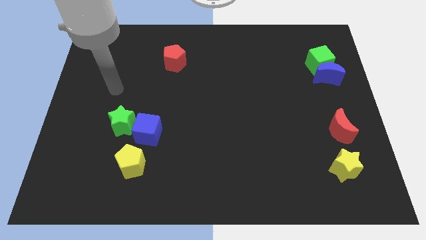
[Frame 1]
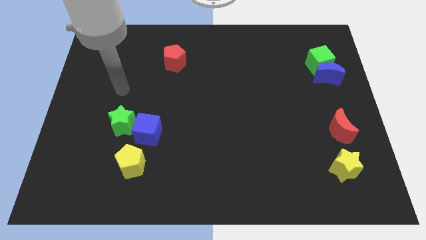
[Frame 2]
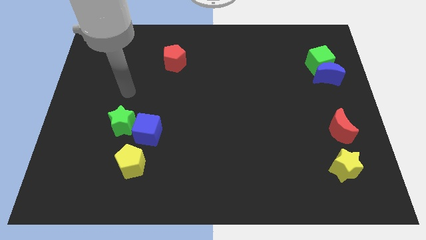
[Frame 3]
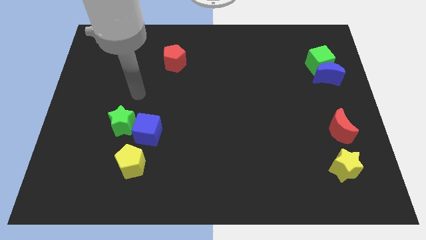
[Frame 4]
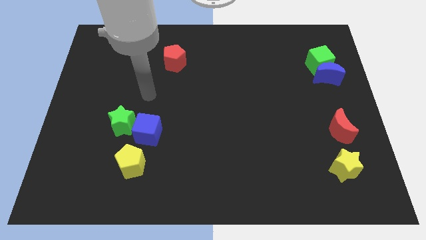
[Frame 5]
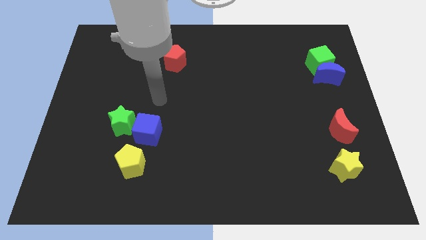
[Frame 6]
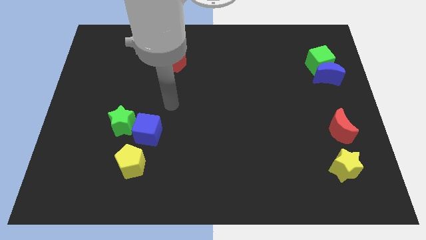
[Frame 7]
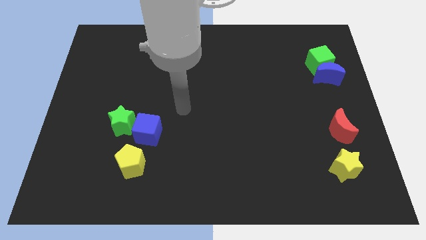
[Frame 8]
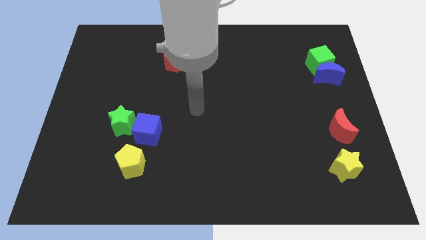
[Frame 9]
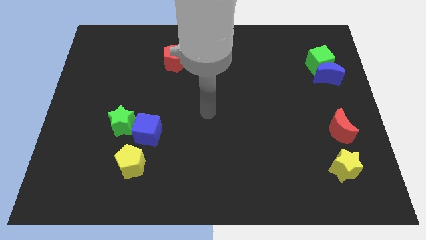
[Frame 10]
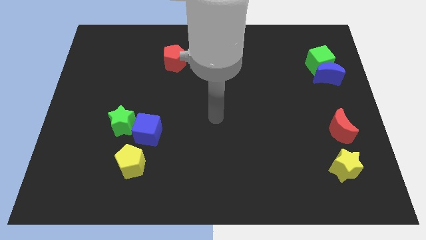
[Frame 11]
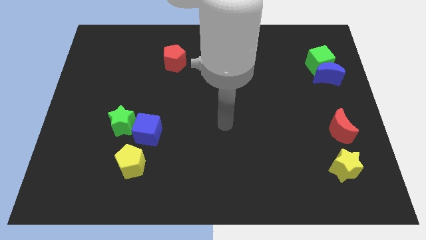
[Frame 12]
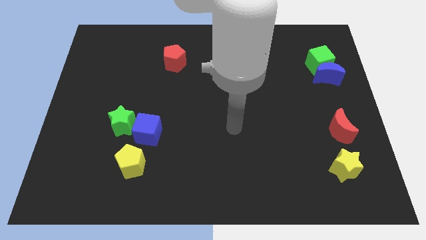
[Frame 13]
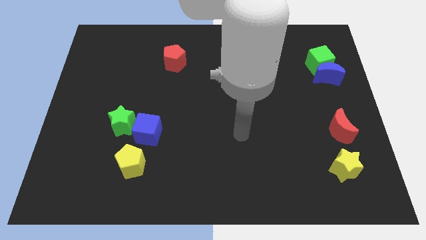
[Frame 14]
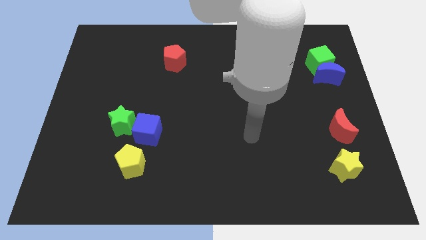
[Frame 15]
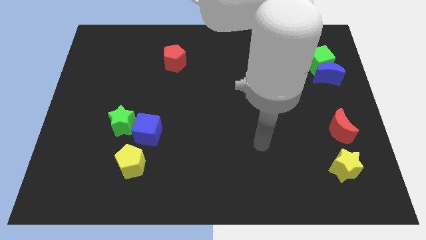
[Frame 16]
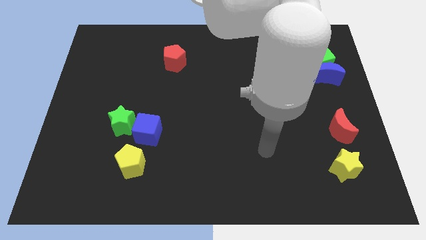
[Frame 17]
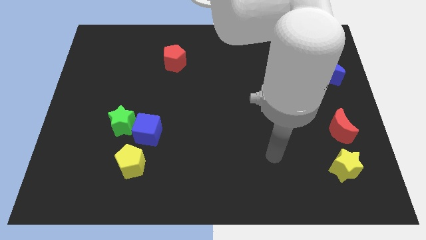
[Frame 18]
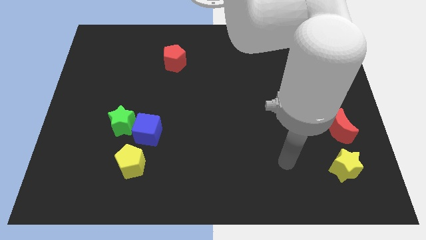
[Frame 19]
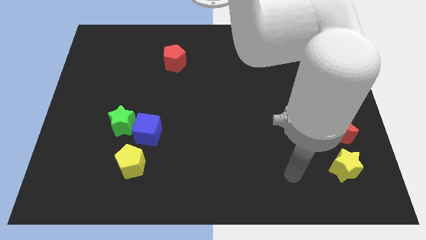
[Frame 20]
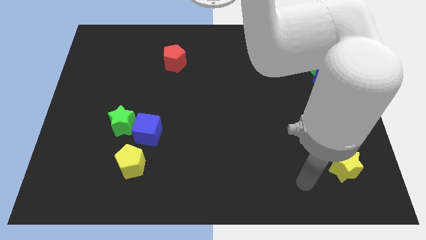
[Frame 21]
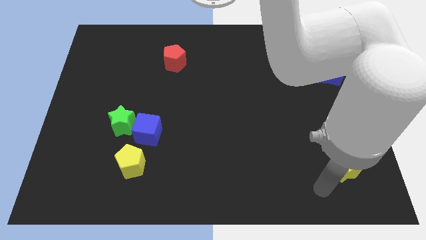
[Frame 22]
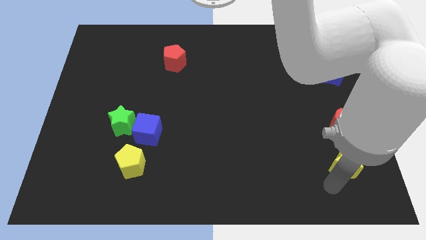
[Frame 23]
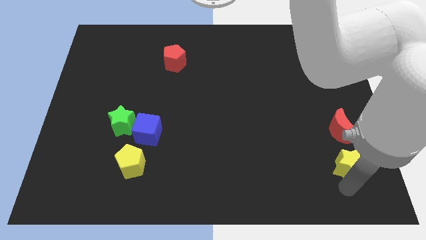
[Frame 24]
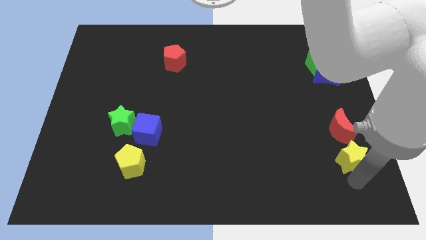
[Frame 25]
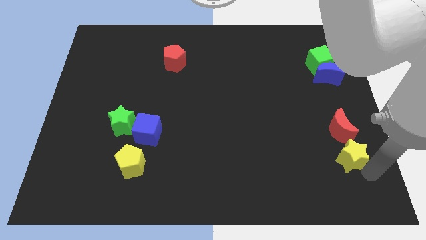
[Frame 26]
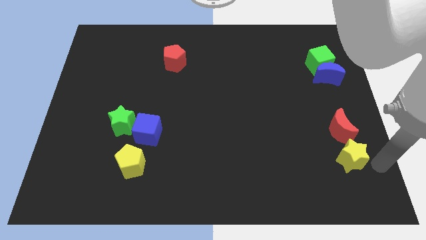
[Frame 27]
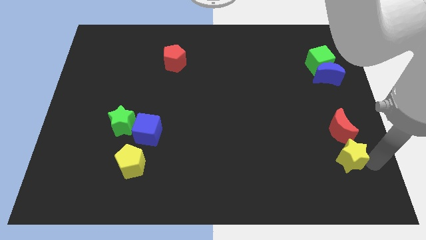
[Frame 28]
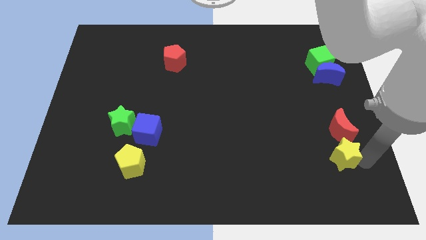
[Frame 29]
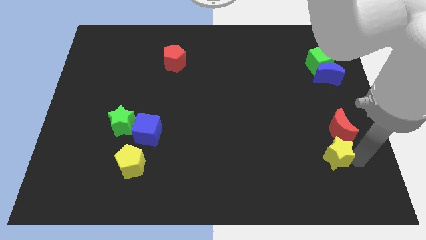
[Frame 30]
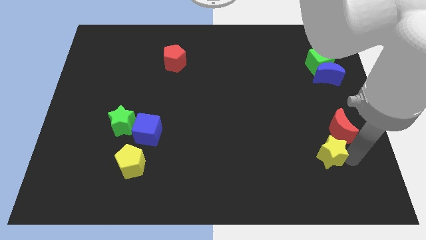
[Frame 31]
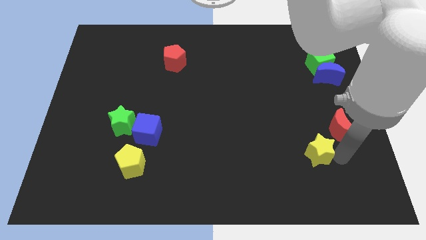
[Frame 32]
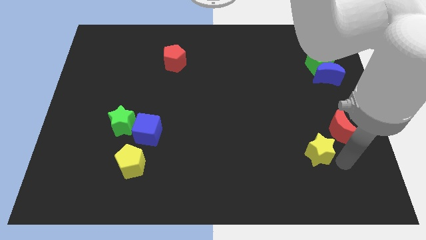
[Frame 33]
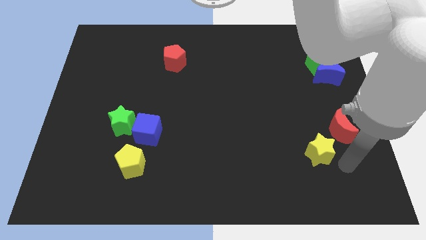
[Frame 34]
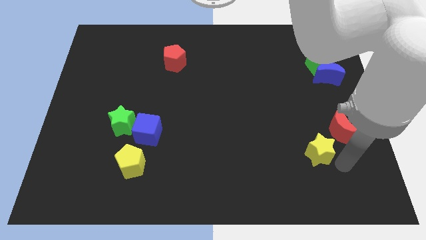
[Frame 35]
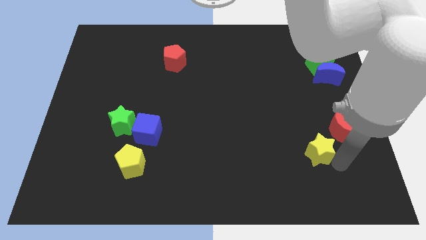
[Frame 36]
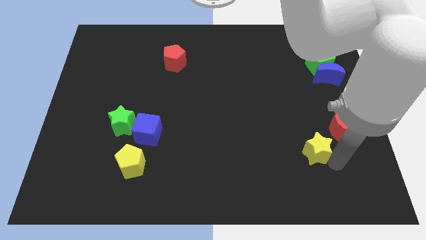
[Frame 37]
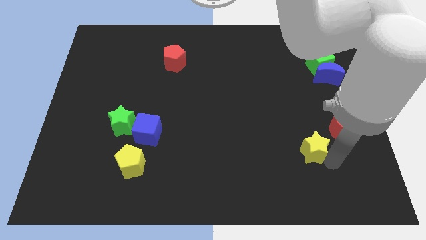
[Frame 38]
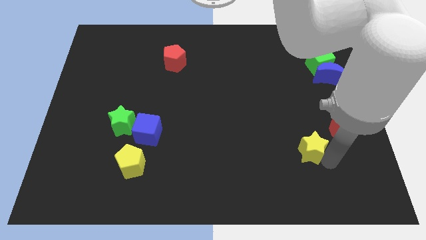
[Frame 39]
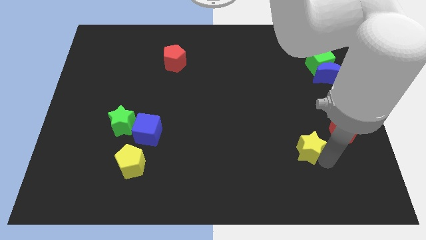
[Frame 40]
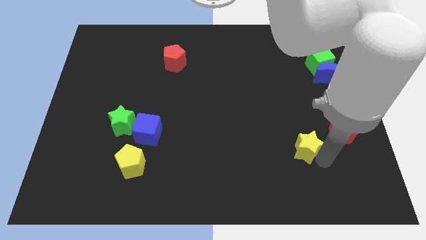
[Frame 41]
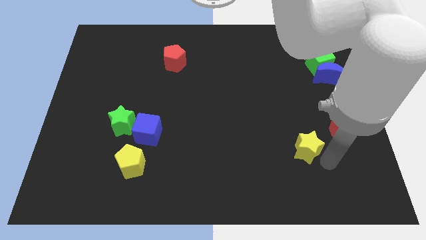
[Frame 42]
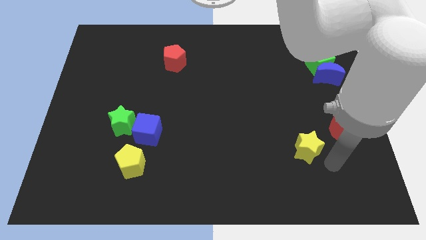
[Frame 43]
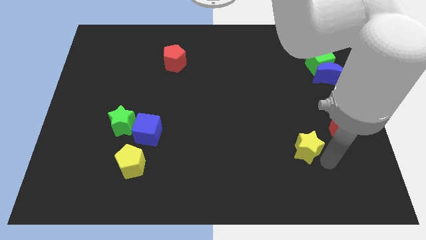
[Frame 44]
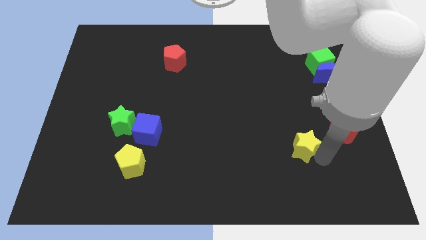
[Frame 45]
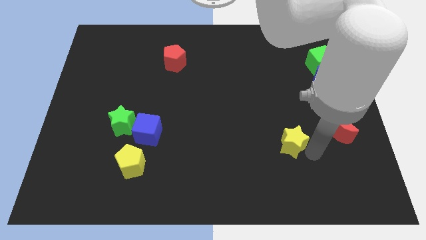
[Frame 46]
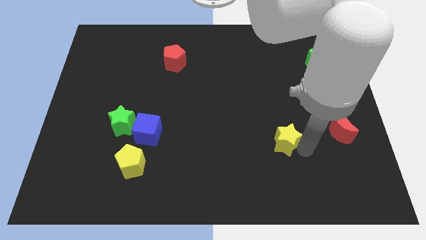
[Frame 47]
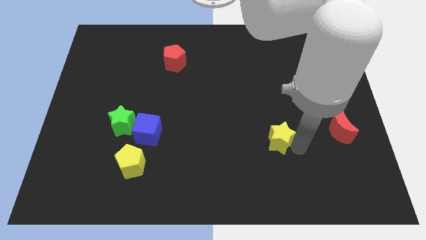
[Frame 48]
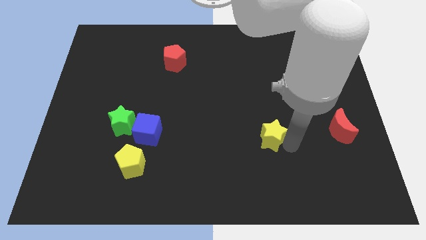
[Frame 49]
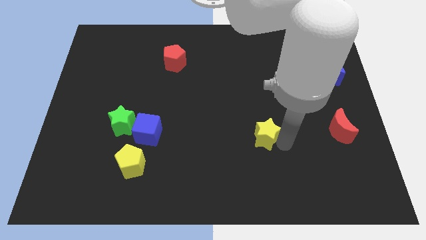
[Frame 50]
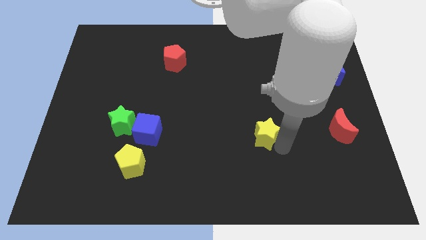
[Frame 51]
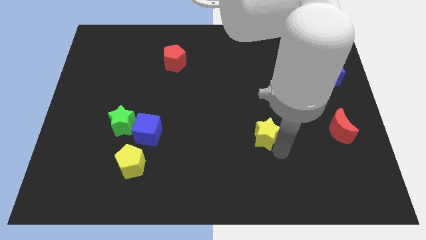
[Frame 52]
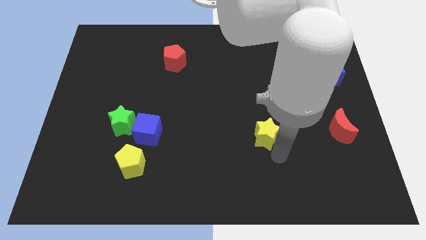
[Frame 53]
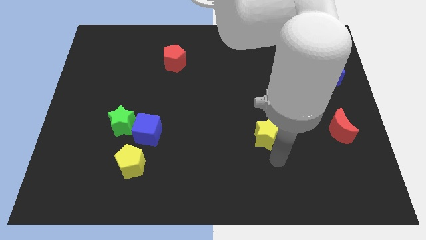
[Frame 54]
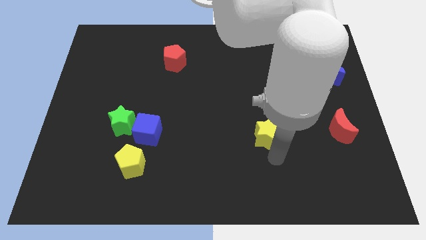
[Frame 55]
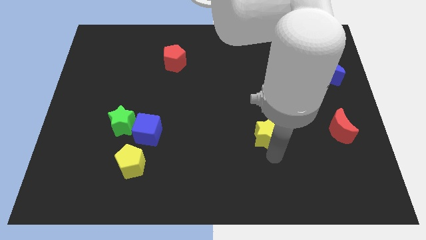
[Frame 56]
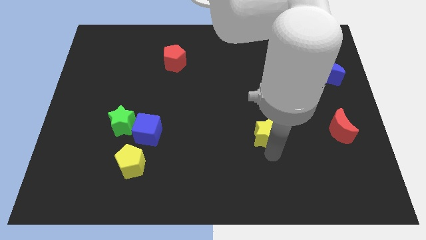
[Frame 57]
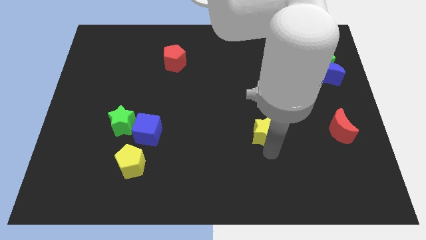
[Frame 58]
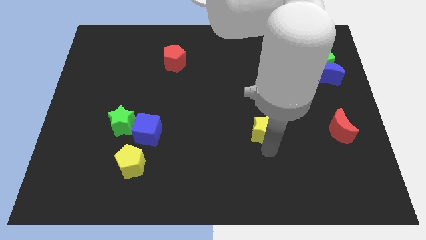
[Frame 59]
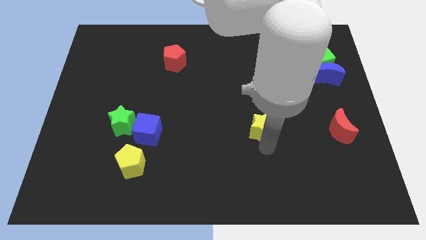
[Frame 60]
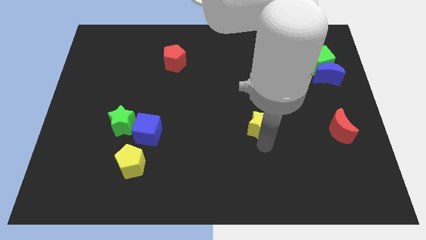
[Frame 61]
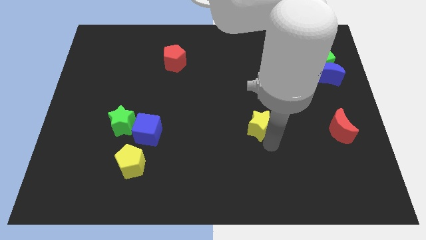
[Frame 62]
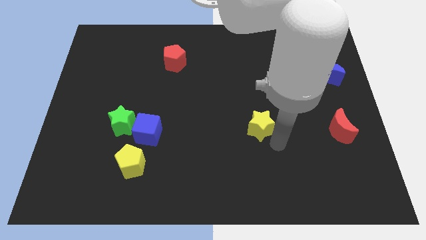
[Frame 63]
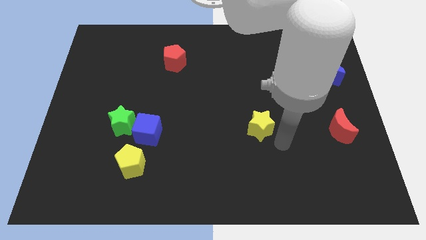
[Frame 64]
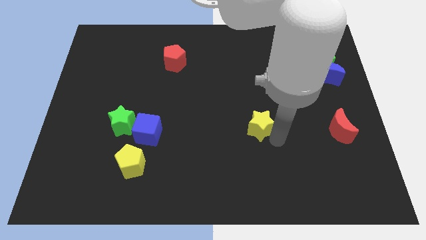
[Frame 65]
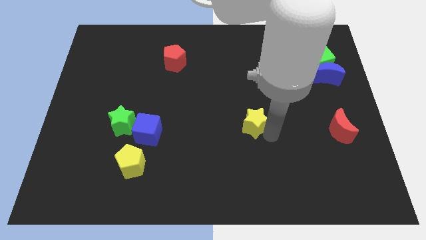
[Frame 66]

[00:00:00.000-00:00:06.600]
slide the yellow star to the middle of the board

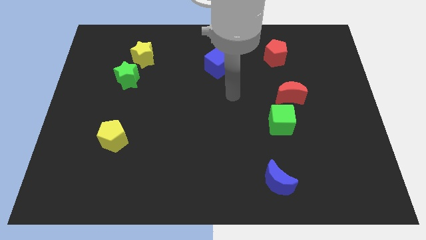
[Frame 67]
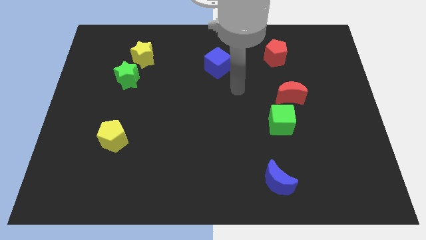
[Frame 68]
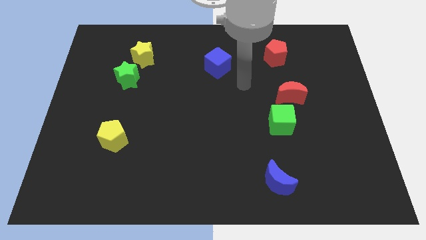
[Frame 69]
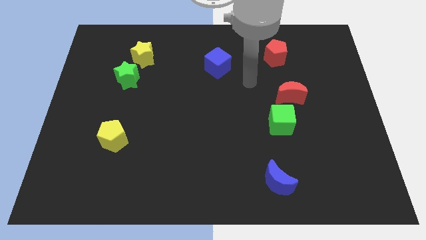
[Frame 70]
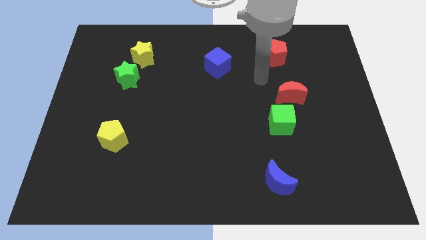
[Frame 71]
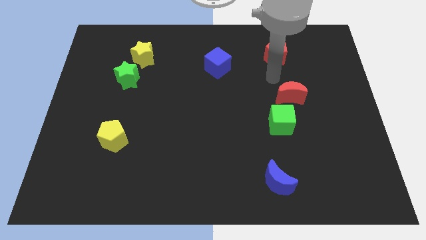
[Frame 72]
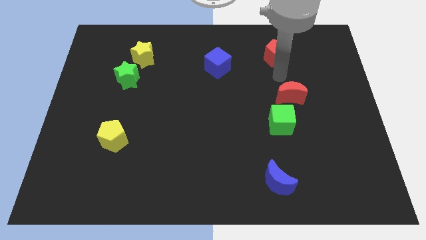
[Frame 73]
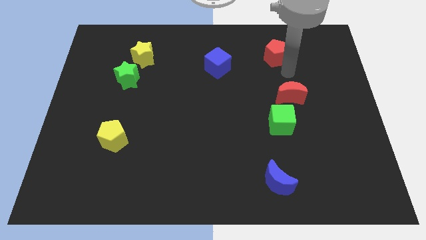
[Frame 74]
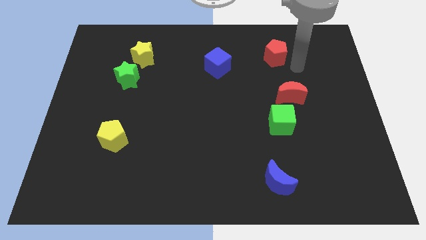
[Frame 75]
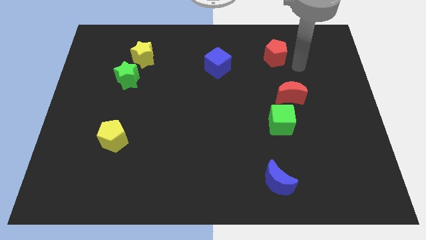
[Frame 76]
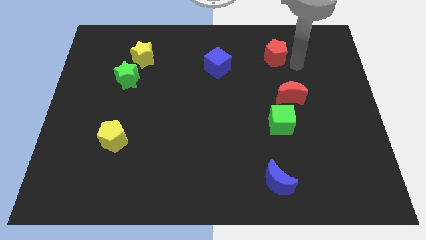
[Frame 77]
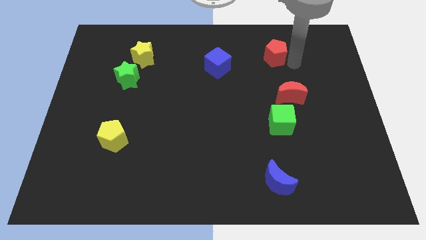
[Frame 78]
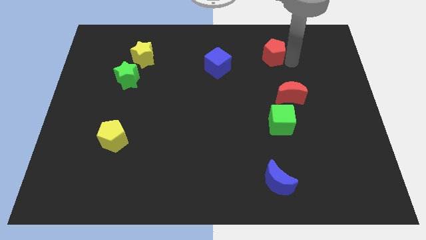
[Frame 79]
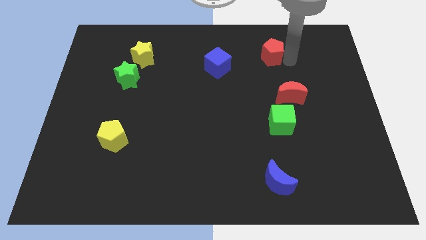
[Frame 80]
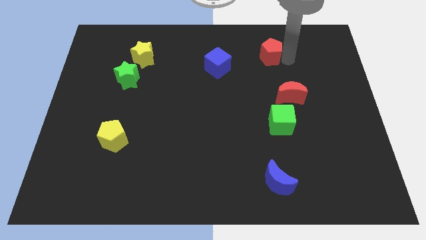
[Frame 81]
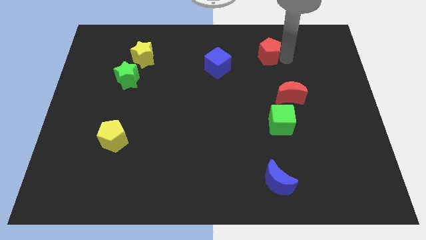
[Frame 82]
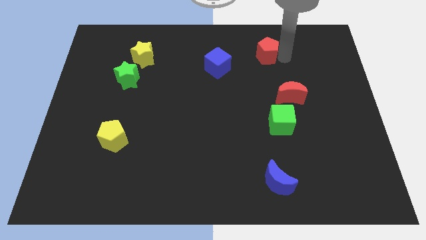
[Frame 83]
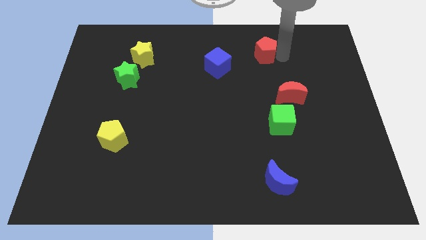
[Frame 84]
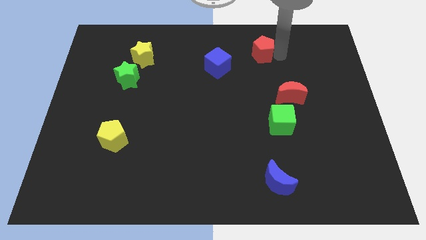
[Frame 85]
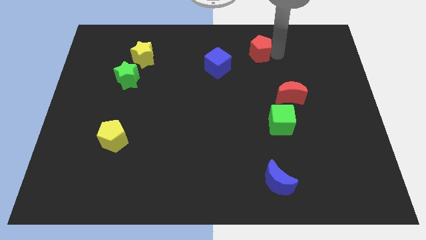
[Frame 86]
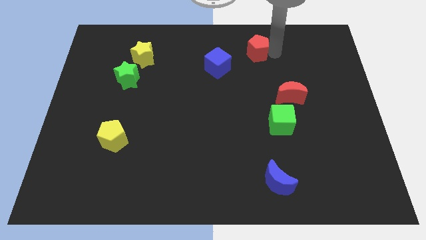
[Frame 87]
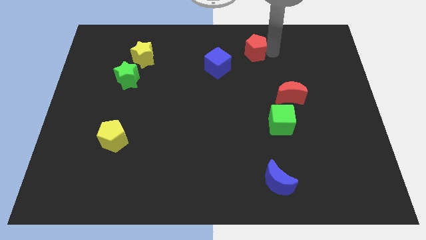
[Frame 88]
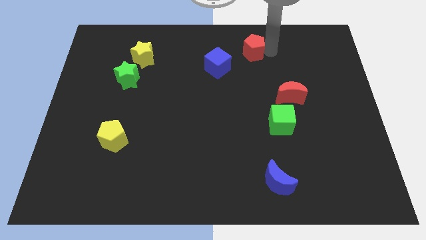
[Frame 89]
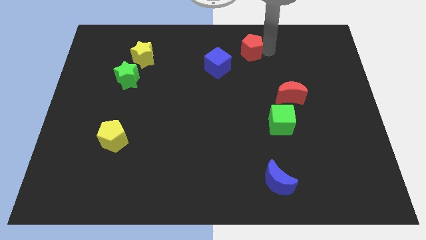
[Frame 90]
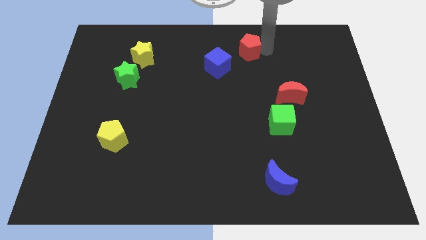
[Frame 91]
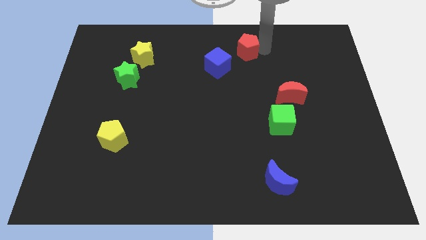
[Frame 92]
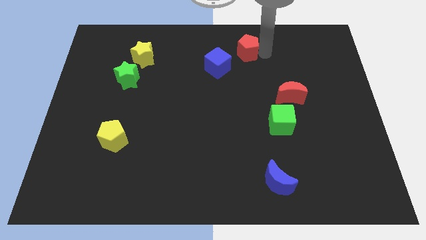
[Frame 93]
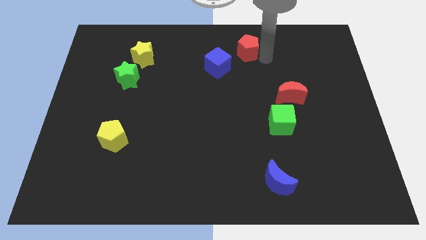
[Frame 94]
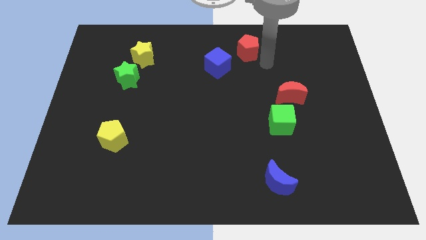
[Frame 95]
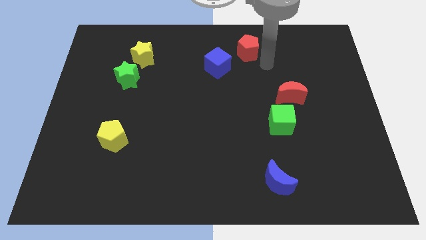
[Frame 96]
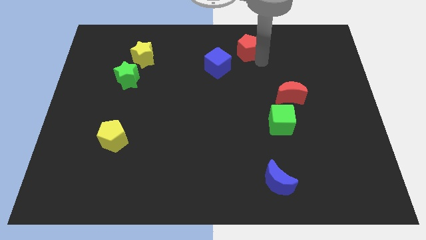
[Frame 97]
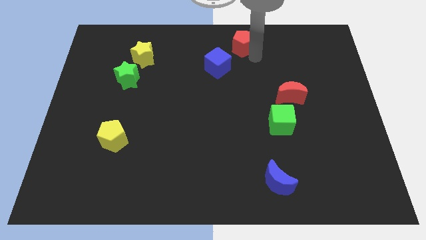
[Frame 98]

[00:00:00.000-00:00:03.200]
slide the red pentagon to the towards your base
